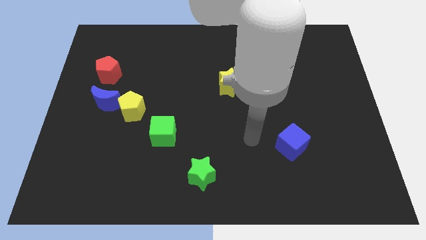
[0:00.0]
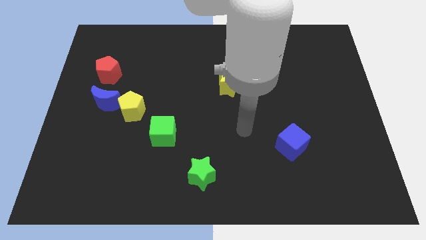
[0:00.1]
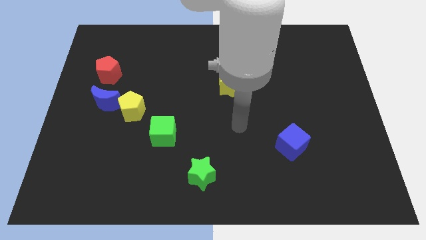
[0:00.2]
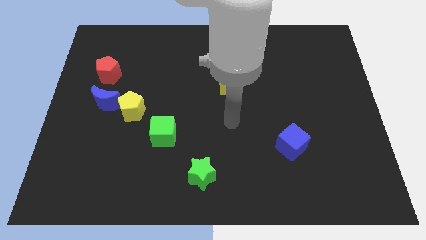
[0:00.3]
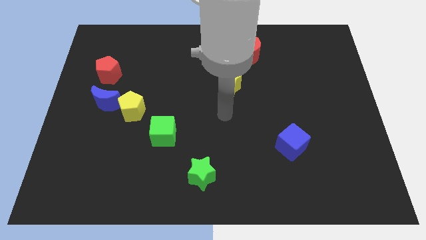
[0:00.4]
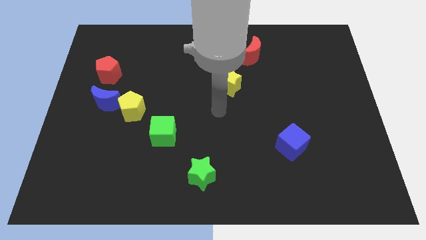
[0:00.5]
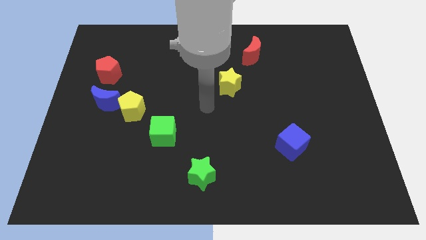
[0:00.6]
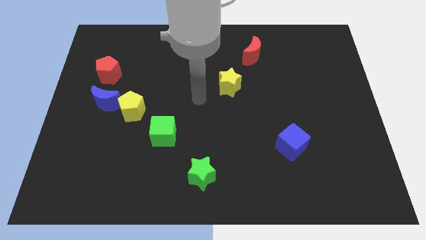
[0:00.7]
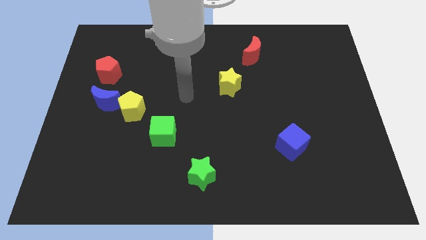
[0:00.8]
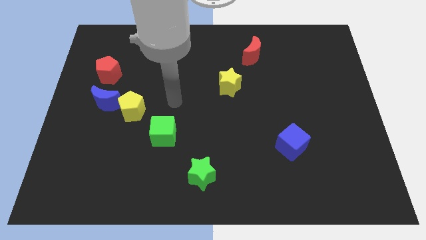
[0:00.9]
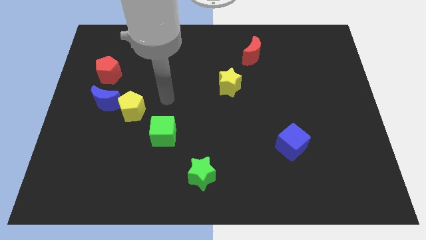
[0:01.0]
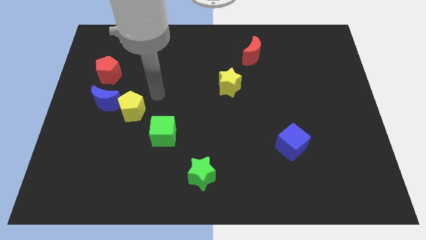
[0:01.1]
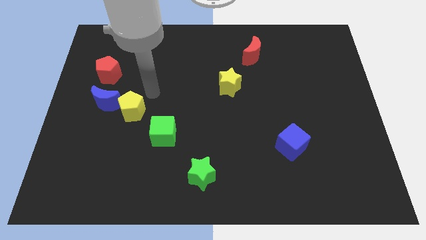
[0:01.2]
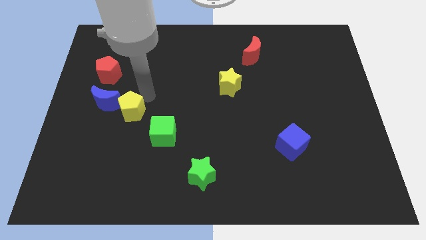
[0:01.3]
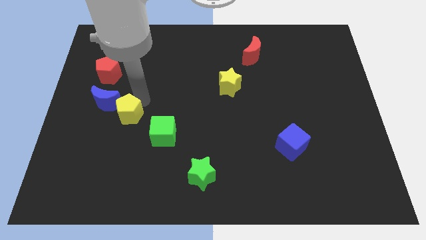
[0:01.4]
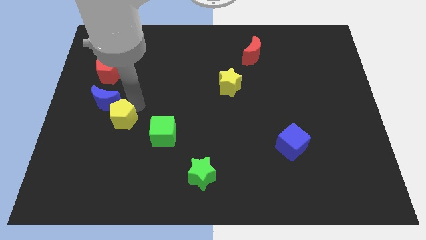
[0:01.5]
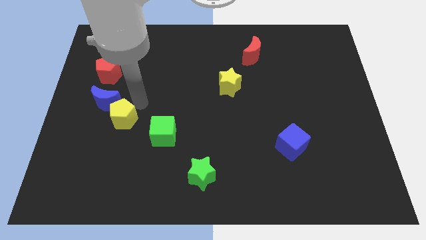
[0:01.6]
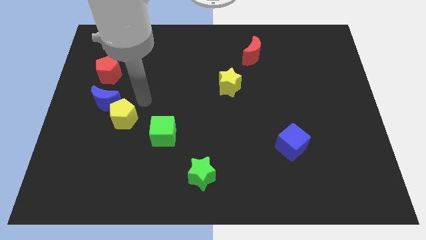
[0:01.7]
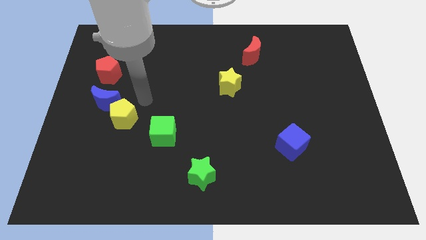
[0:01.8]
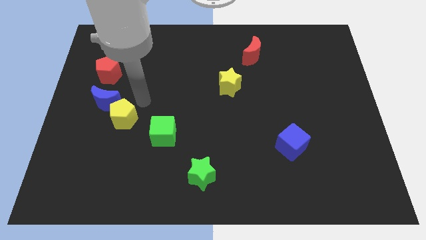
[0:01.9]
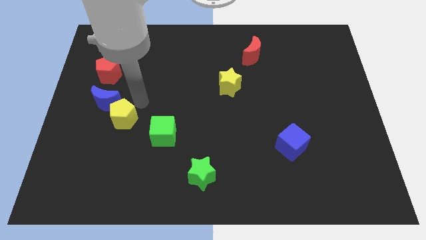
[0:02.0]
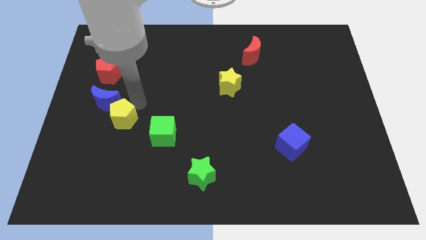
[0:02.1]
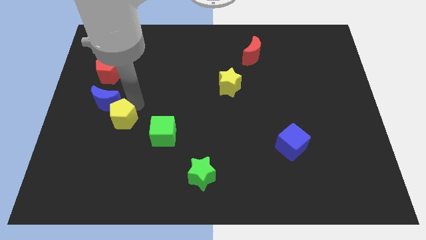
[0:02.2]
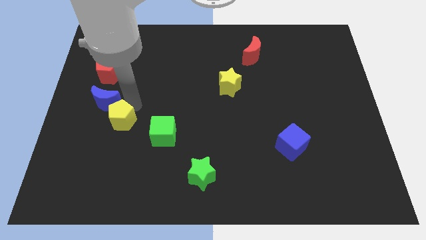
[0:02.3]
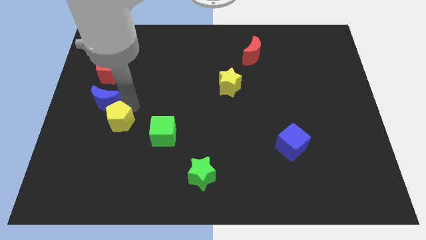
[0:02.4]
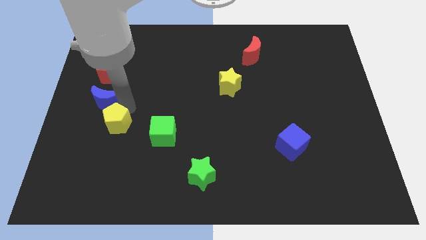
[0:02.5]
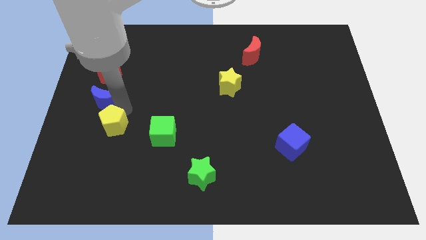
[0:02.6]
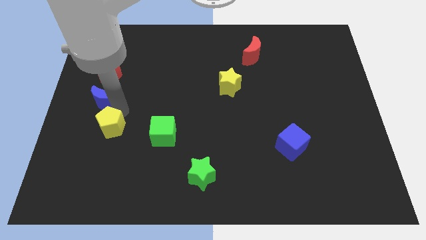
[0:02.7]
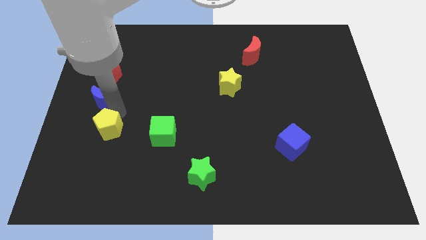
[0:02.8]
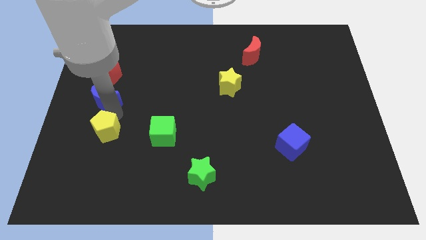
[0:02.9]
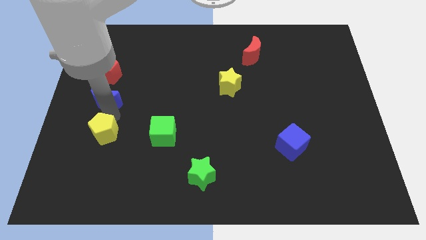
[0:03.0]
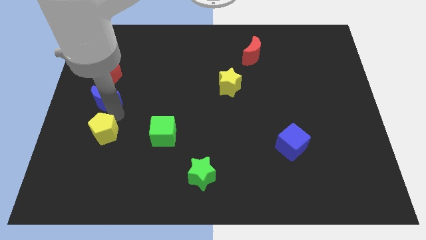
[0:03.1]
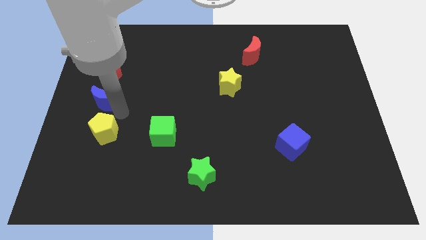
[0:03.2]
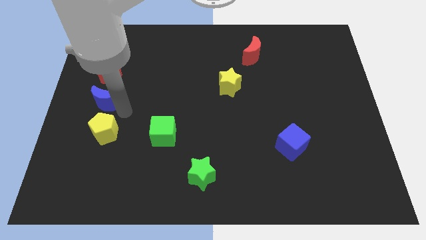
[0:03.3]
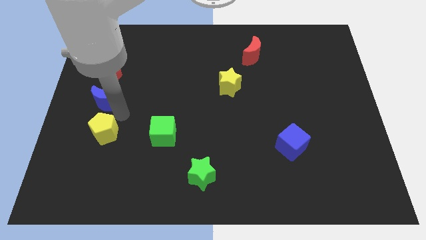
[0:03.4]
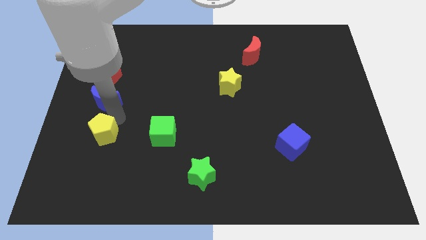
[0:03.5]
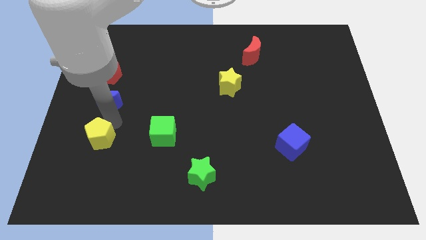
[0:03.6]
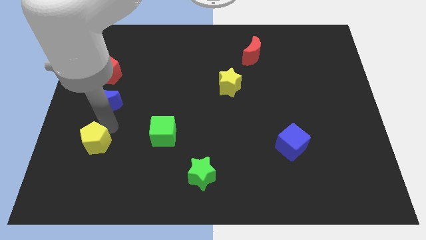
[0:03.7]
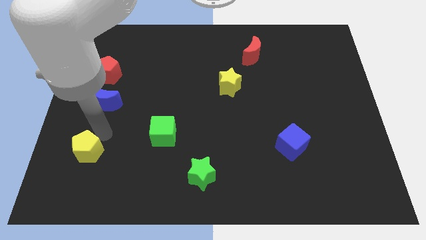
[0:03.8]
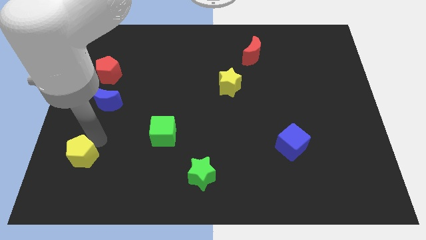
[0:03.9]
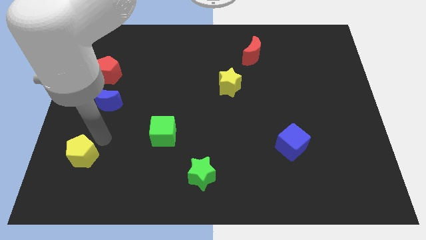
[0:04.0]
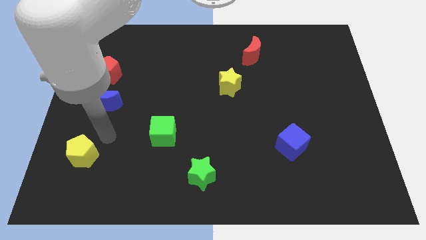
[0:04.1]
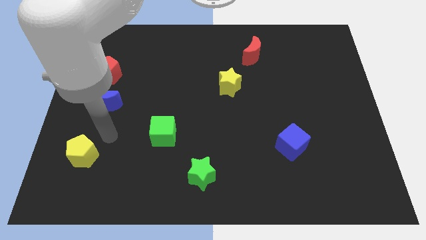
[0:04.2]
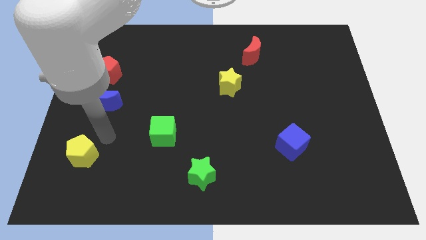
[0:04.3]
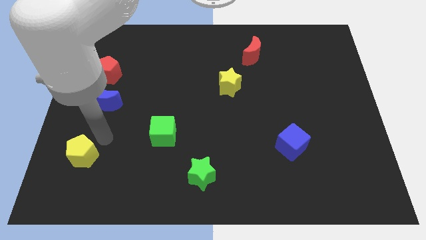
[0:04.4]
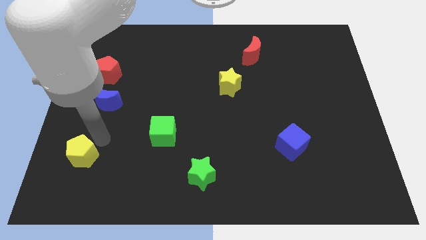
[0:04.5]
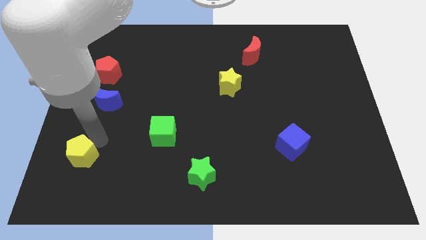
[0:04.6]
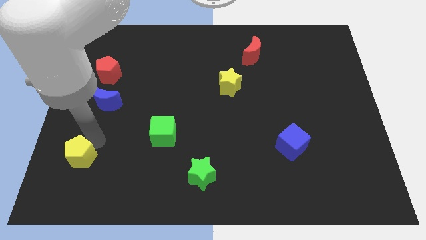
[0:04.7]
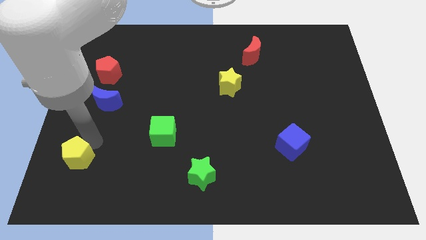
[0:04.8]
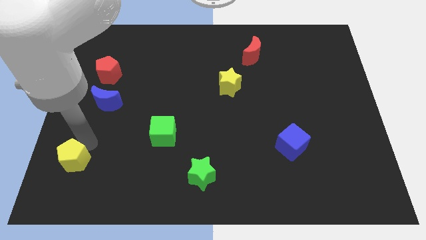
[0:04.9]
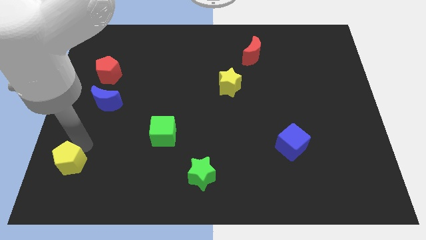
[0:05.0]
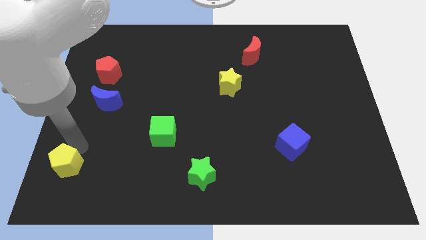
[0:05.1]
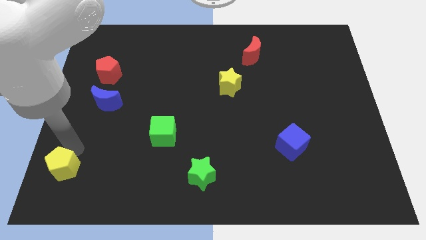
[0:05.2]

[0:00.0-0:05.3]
move the yellow pentagon to the bottom left

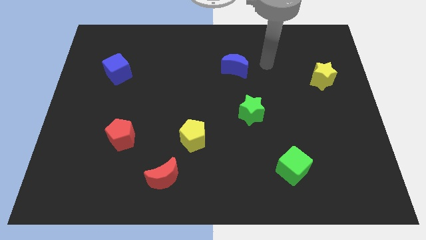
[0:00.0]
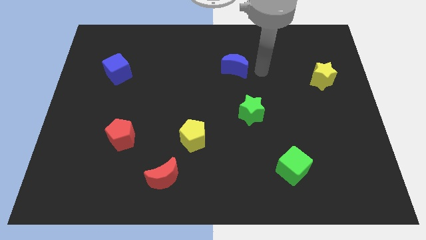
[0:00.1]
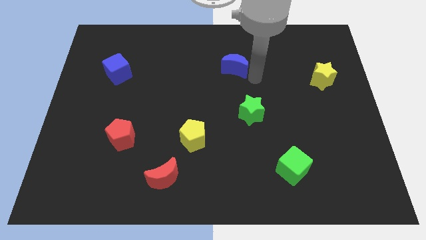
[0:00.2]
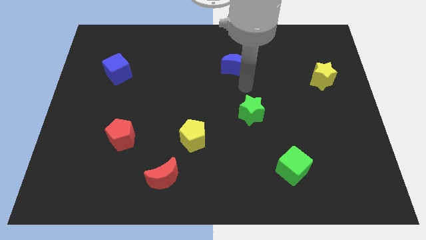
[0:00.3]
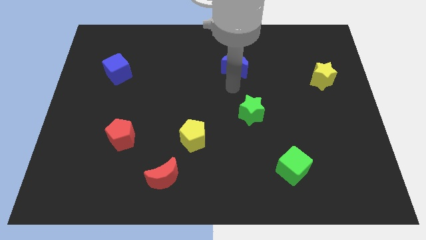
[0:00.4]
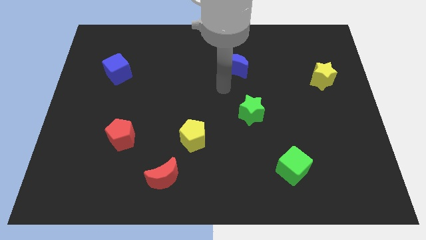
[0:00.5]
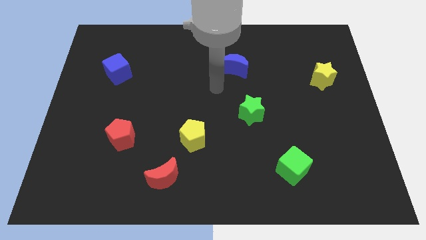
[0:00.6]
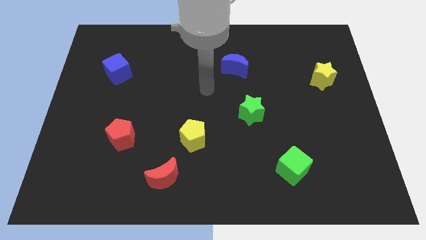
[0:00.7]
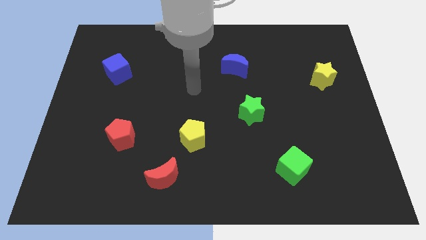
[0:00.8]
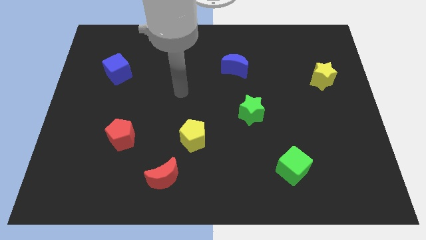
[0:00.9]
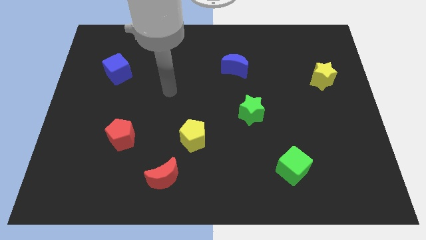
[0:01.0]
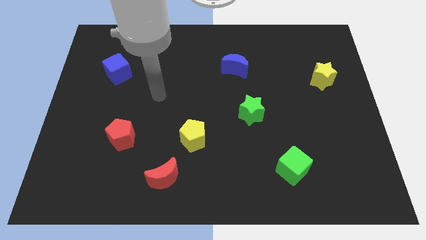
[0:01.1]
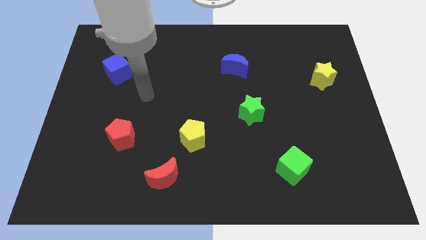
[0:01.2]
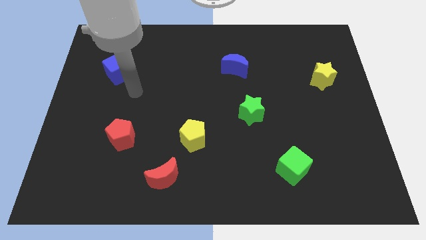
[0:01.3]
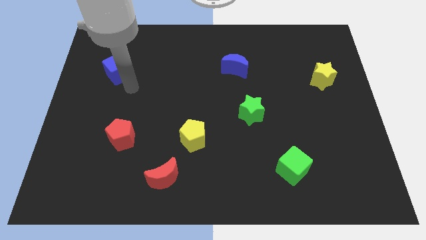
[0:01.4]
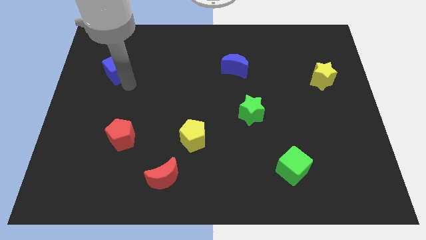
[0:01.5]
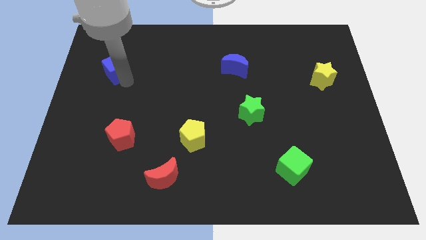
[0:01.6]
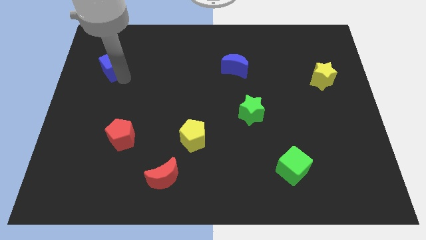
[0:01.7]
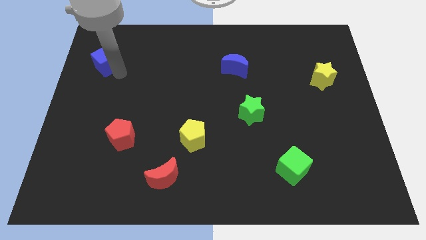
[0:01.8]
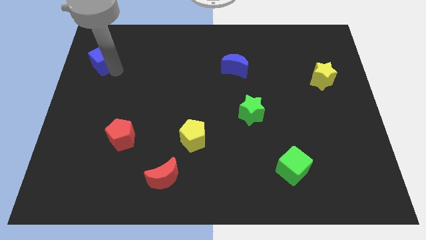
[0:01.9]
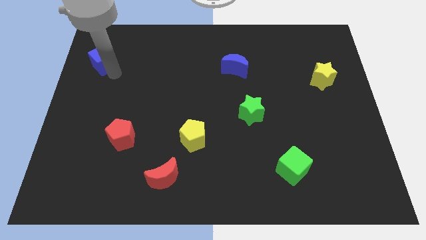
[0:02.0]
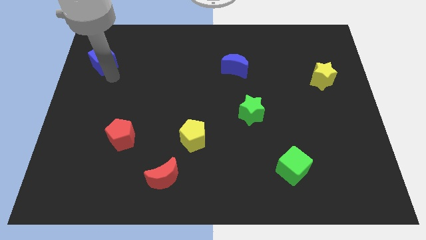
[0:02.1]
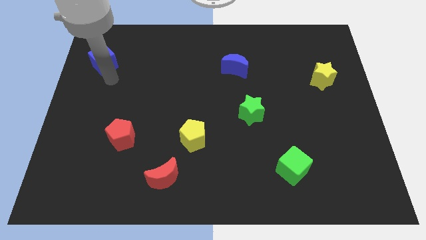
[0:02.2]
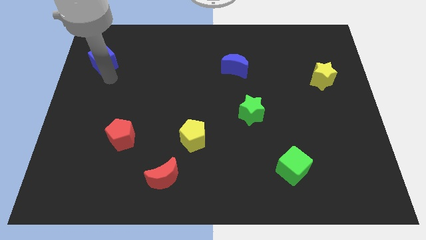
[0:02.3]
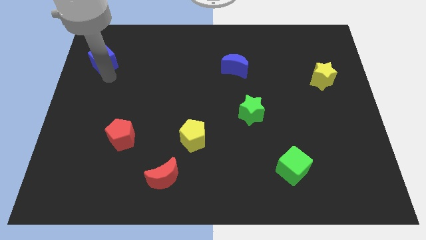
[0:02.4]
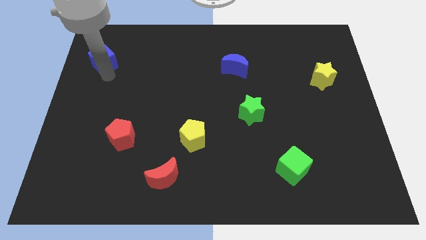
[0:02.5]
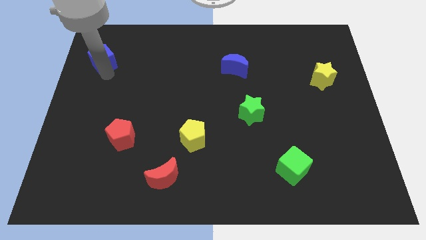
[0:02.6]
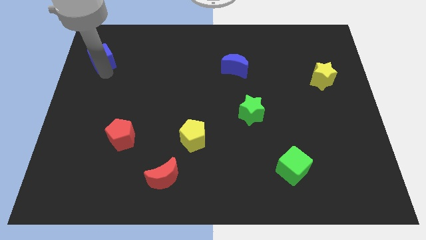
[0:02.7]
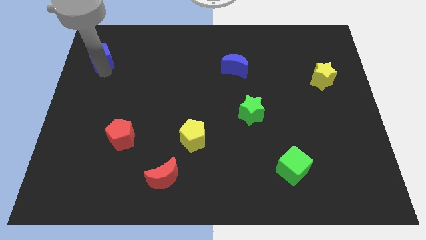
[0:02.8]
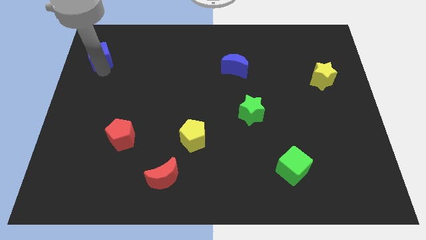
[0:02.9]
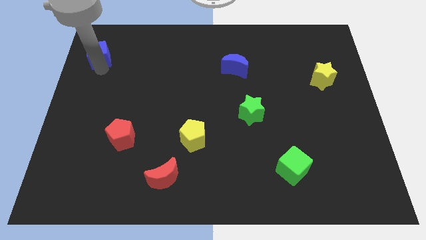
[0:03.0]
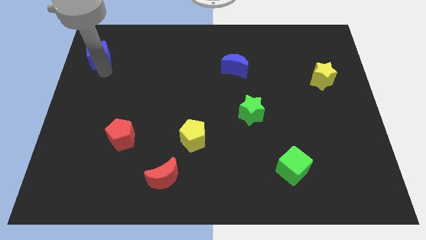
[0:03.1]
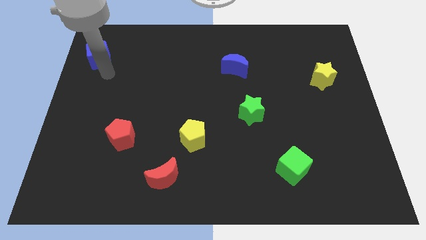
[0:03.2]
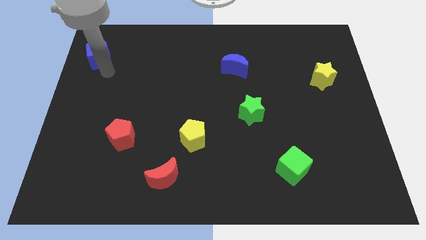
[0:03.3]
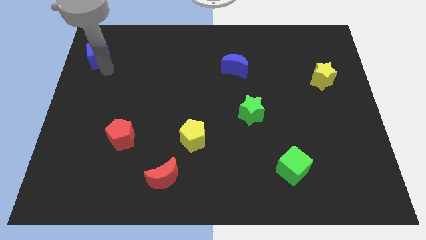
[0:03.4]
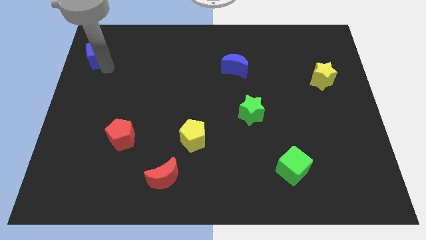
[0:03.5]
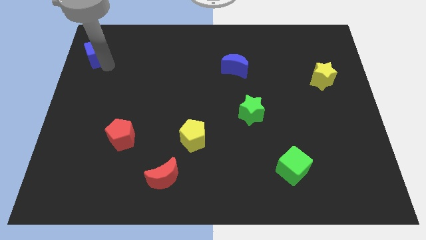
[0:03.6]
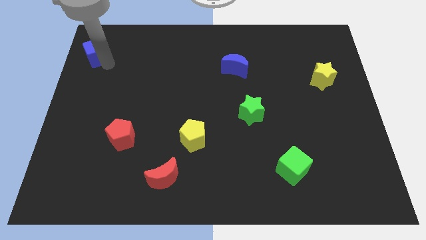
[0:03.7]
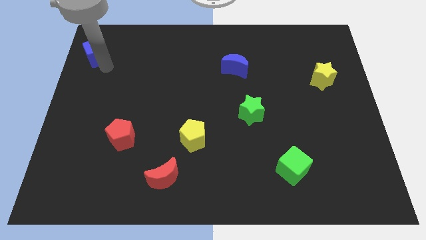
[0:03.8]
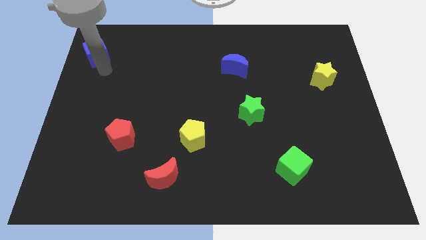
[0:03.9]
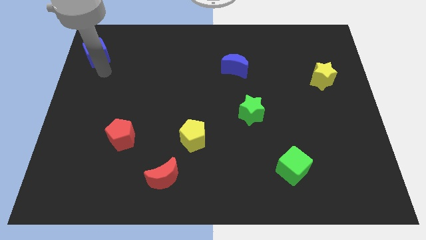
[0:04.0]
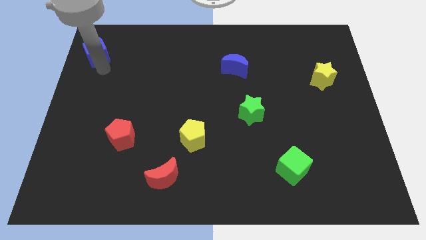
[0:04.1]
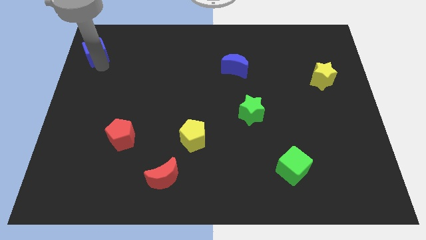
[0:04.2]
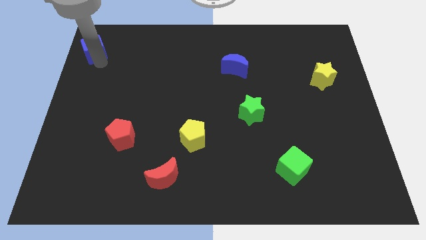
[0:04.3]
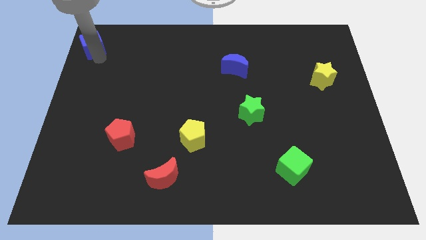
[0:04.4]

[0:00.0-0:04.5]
put the blue cube to the top left of the board
